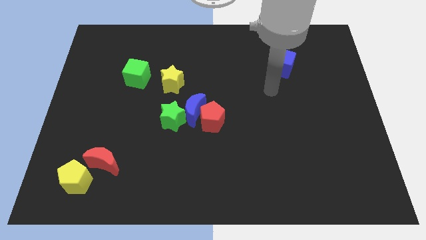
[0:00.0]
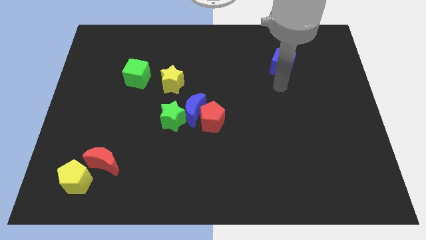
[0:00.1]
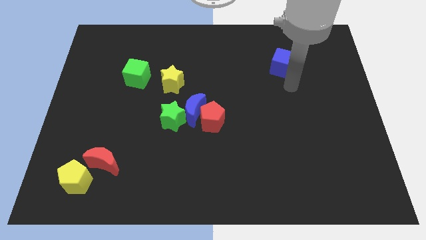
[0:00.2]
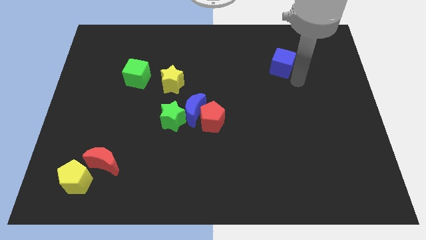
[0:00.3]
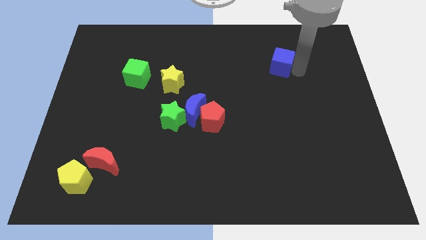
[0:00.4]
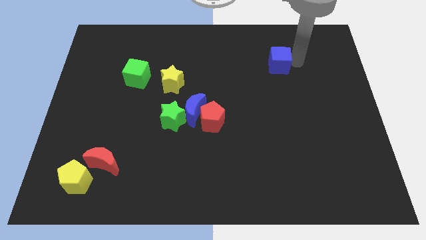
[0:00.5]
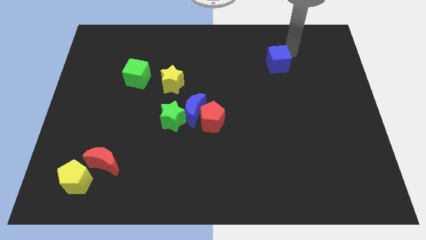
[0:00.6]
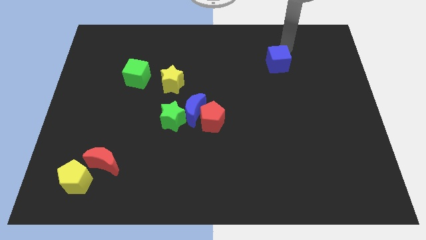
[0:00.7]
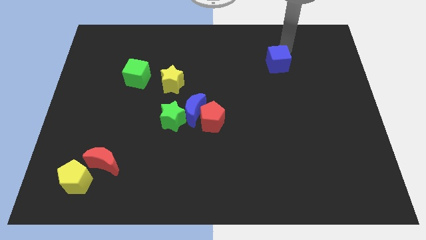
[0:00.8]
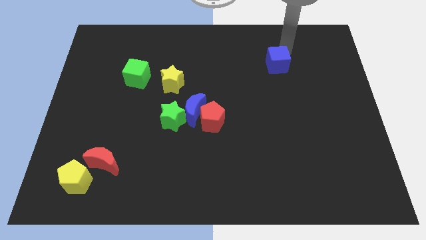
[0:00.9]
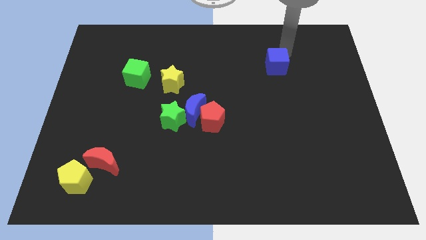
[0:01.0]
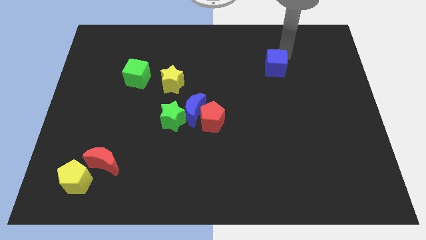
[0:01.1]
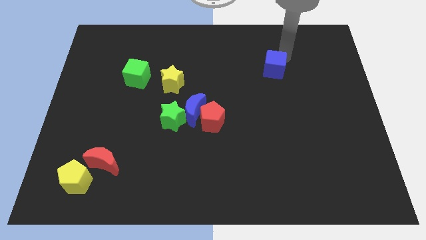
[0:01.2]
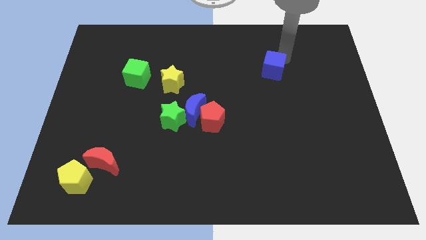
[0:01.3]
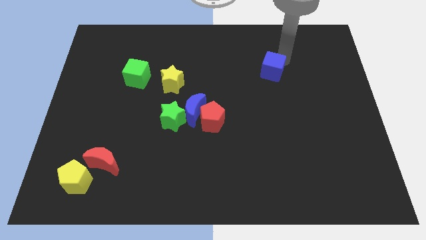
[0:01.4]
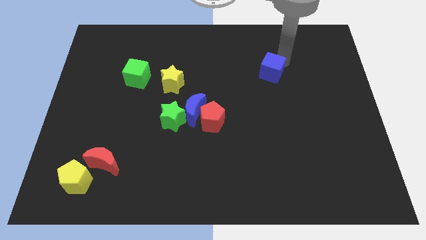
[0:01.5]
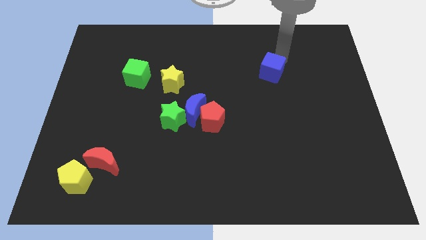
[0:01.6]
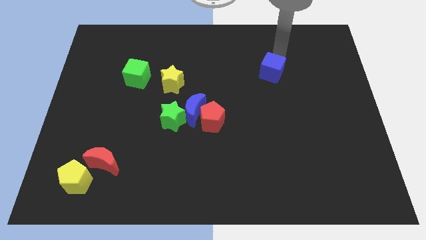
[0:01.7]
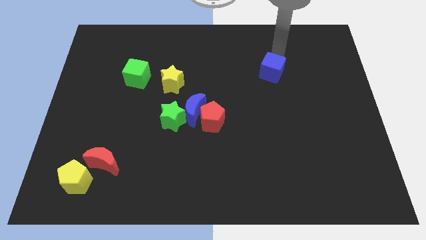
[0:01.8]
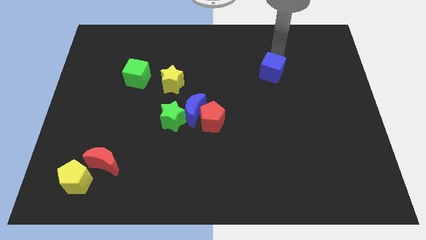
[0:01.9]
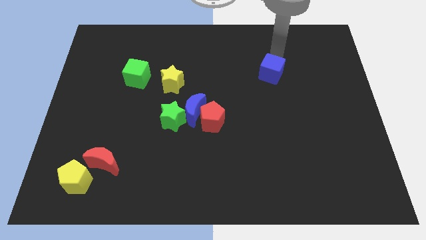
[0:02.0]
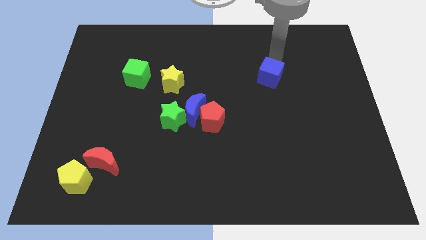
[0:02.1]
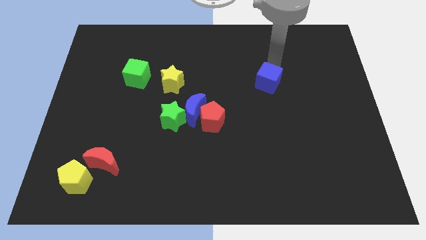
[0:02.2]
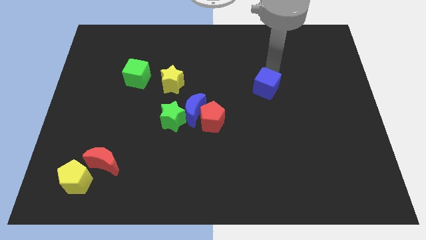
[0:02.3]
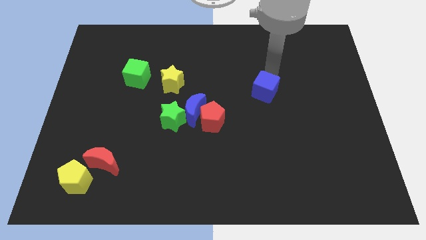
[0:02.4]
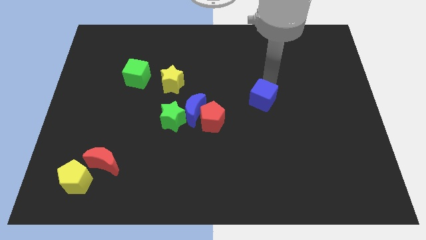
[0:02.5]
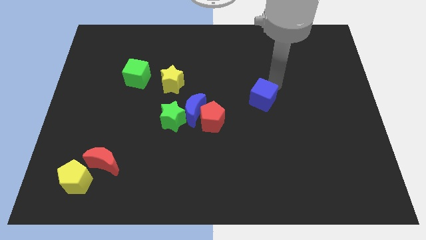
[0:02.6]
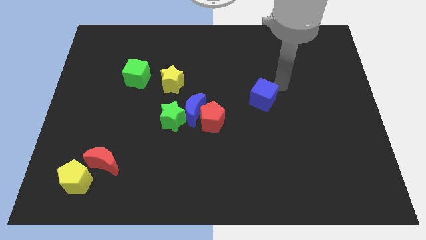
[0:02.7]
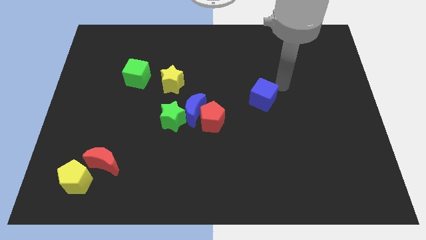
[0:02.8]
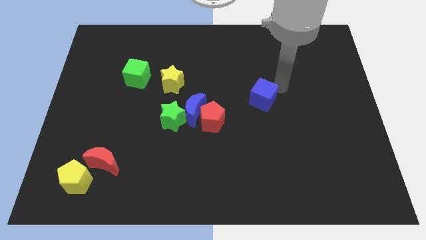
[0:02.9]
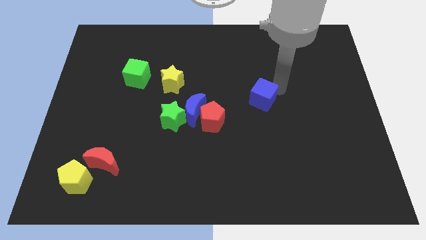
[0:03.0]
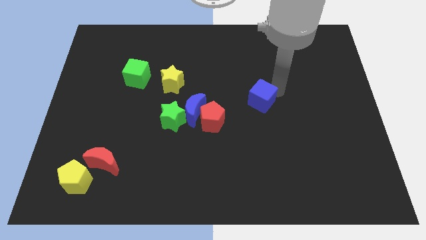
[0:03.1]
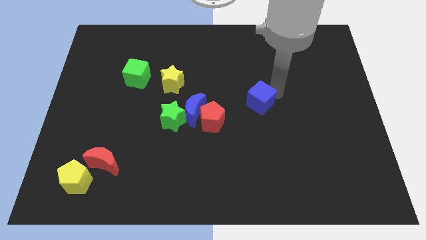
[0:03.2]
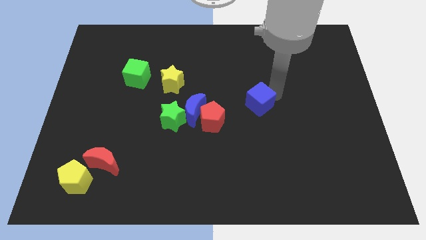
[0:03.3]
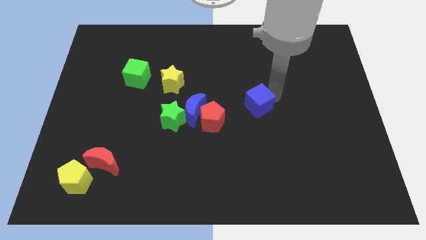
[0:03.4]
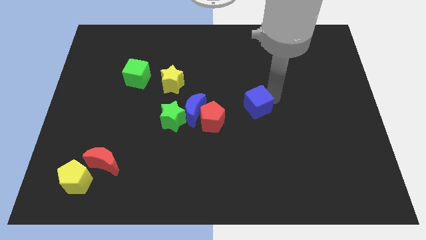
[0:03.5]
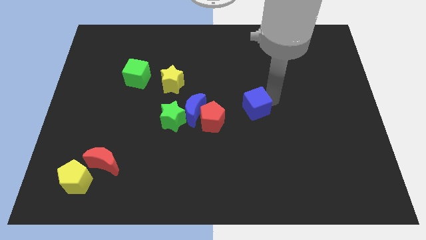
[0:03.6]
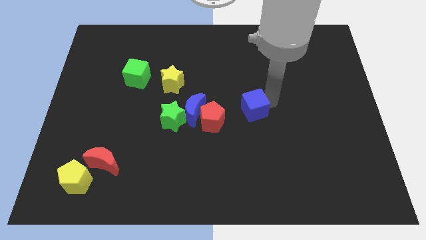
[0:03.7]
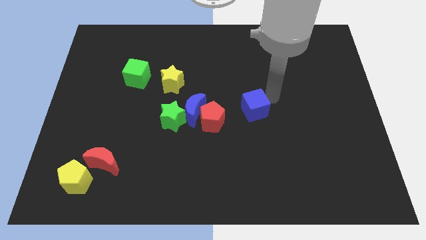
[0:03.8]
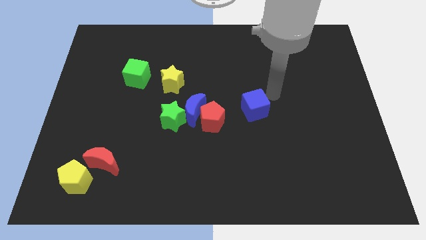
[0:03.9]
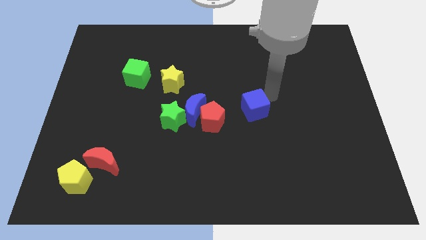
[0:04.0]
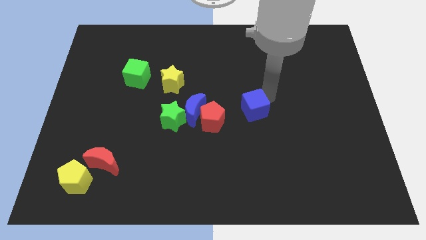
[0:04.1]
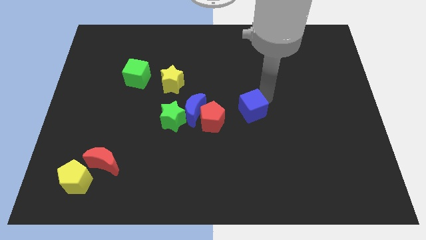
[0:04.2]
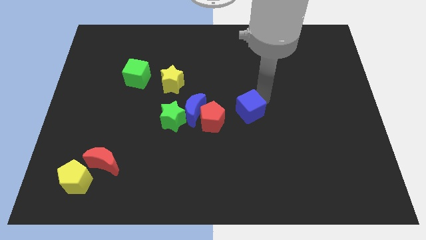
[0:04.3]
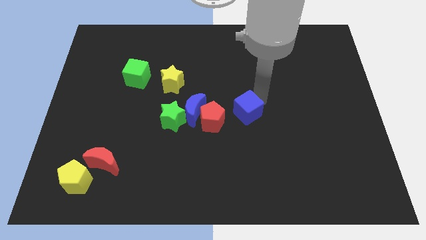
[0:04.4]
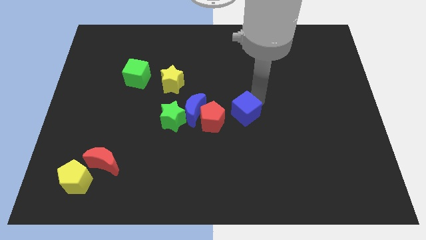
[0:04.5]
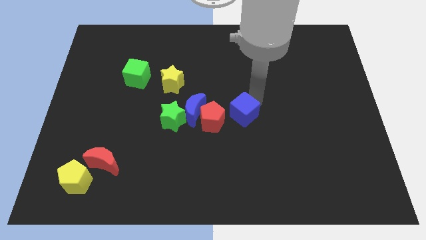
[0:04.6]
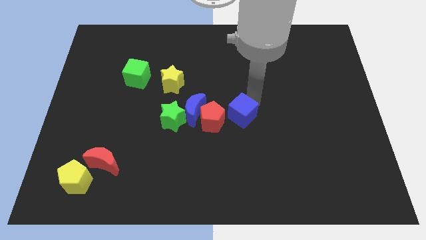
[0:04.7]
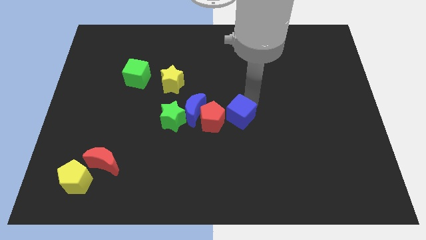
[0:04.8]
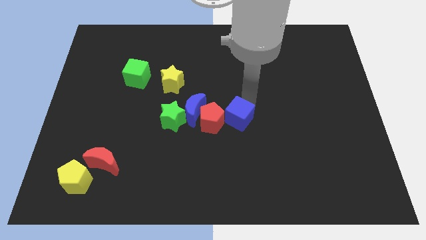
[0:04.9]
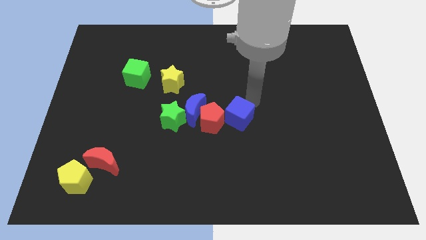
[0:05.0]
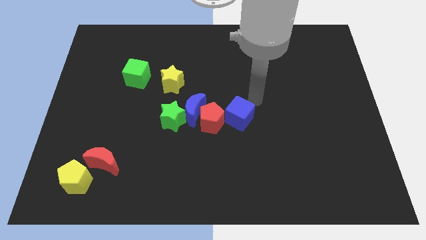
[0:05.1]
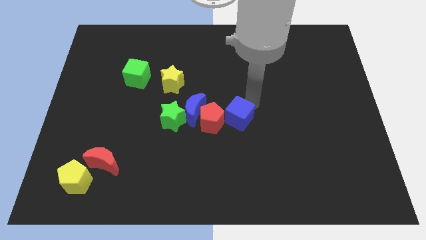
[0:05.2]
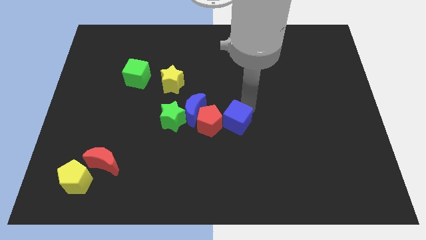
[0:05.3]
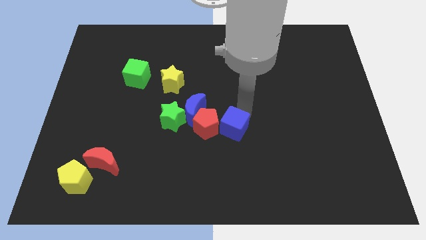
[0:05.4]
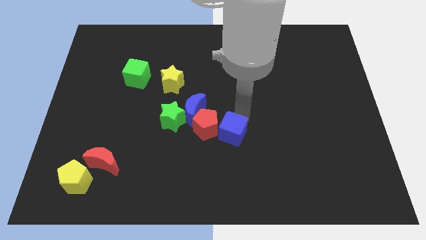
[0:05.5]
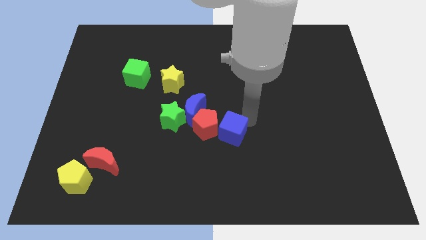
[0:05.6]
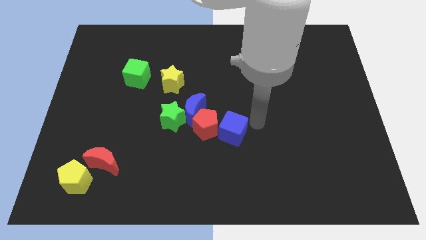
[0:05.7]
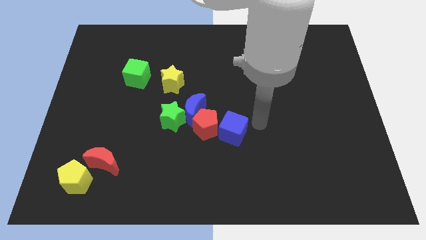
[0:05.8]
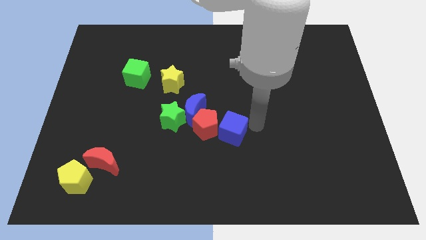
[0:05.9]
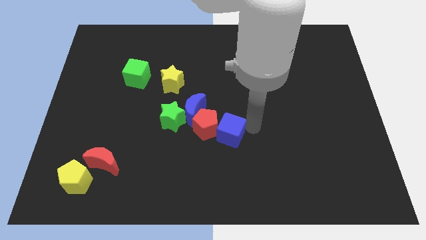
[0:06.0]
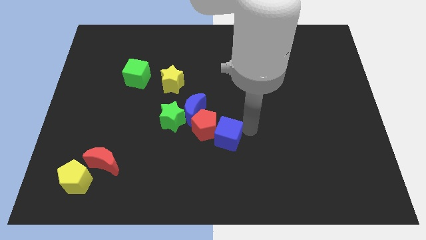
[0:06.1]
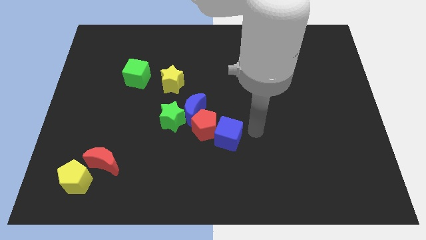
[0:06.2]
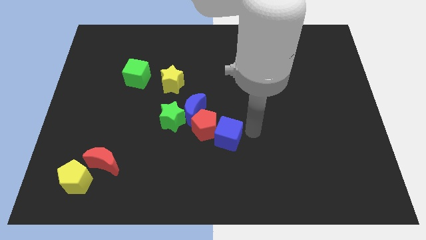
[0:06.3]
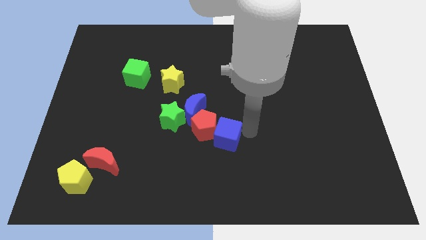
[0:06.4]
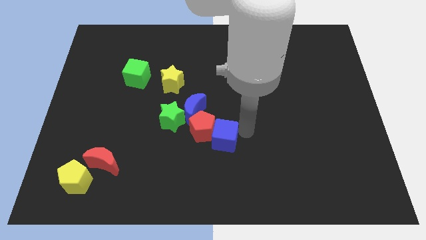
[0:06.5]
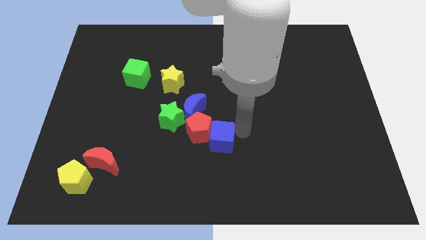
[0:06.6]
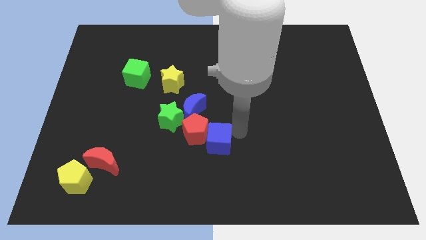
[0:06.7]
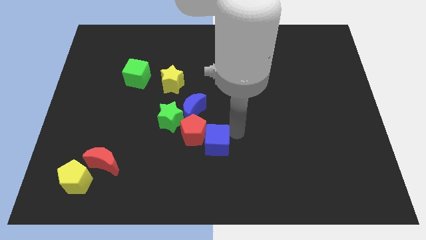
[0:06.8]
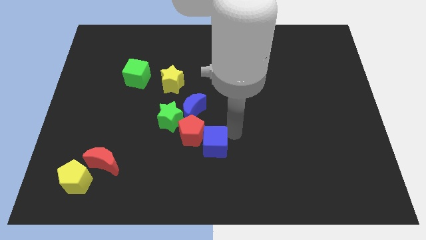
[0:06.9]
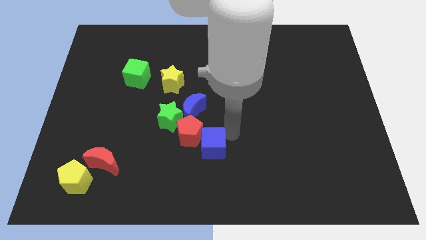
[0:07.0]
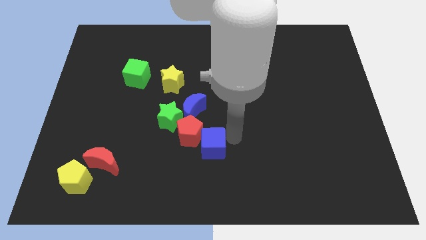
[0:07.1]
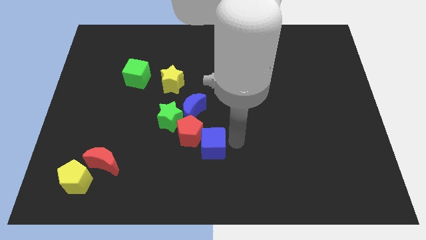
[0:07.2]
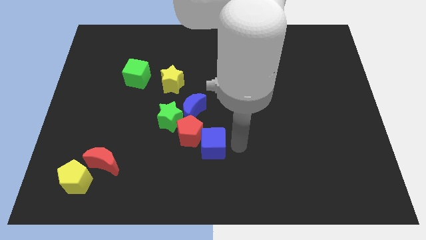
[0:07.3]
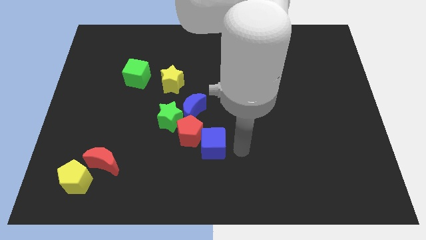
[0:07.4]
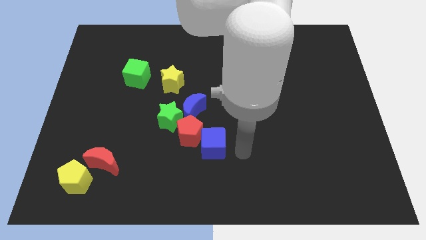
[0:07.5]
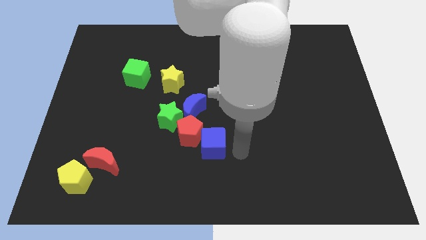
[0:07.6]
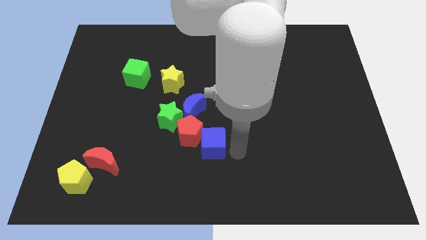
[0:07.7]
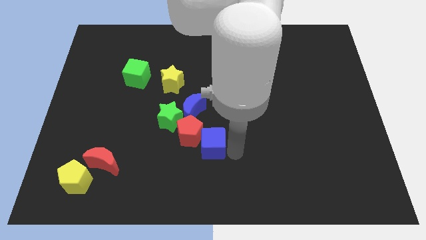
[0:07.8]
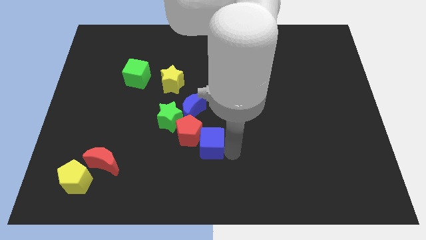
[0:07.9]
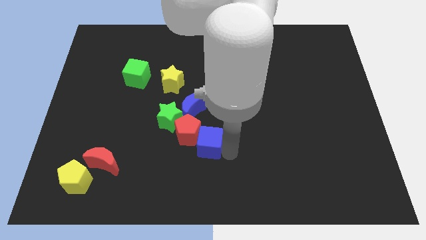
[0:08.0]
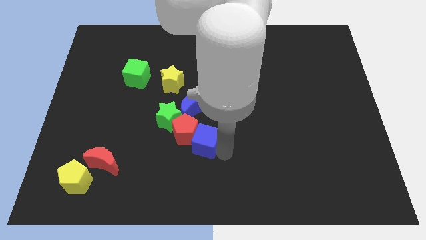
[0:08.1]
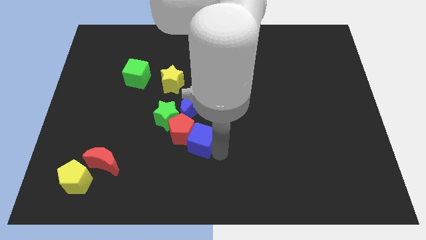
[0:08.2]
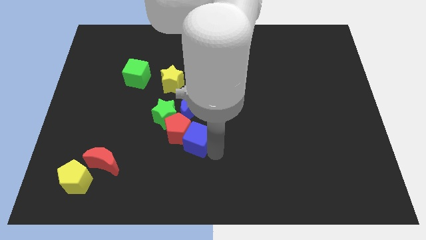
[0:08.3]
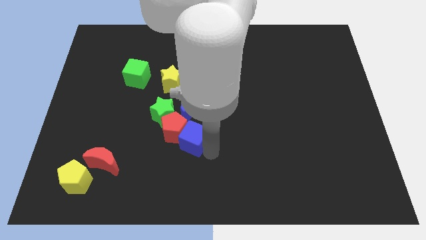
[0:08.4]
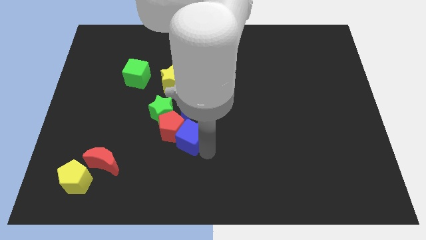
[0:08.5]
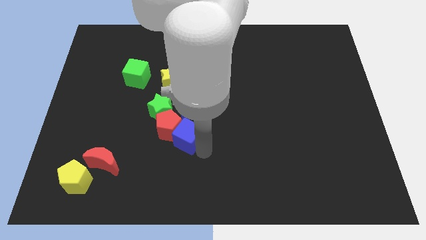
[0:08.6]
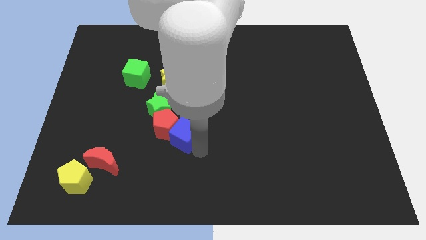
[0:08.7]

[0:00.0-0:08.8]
move the blue cube to the bottom left of the blue moon
